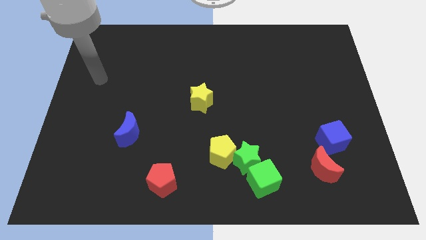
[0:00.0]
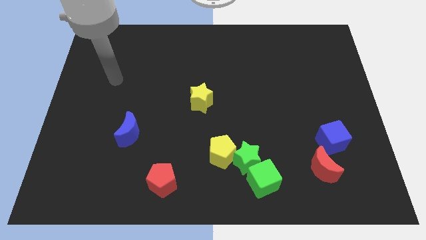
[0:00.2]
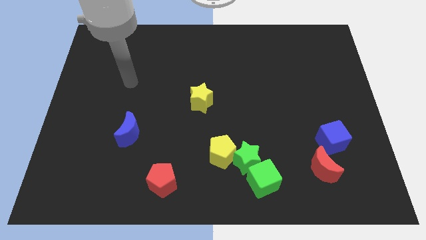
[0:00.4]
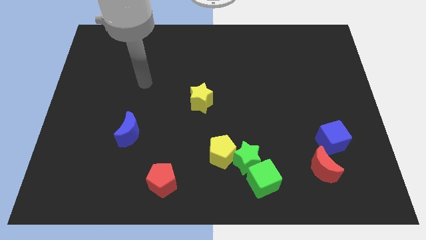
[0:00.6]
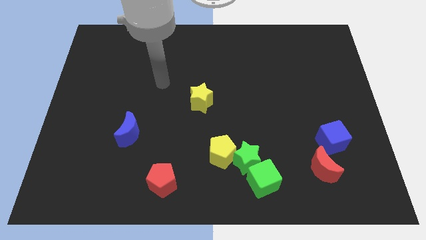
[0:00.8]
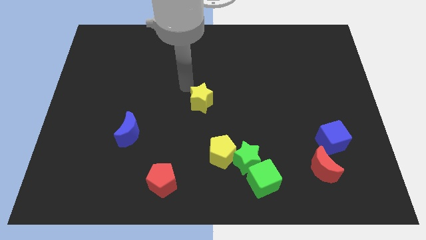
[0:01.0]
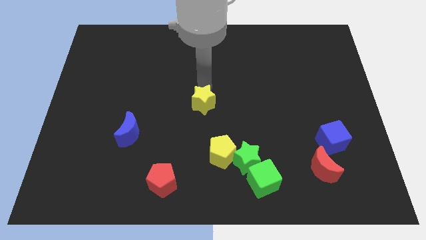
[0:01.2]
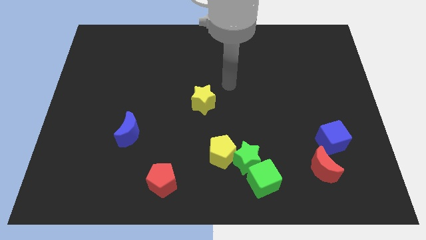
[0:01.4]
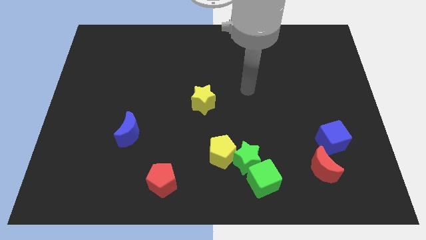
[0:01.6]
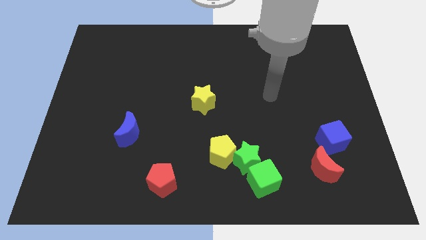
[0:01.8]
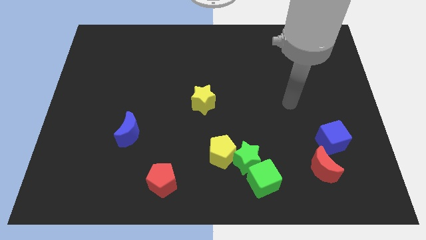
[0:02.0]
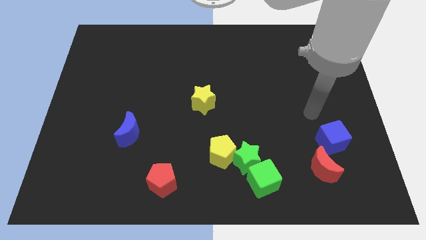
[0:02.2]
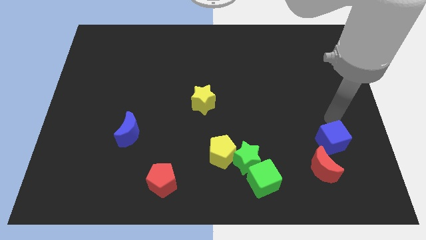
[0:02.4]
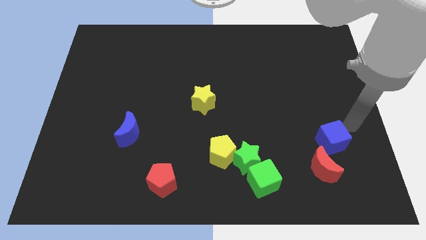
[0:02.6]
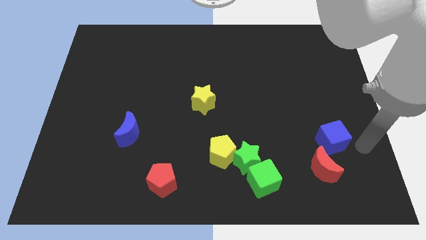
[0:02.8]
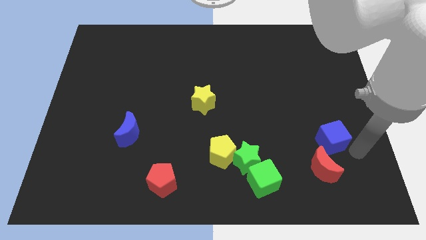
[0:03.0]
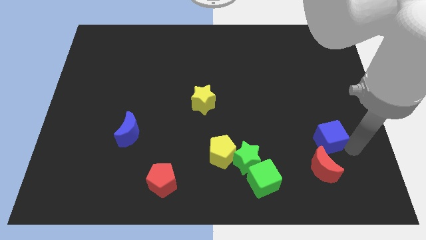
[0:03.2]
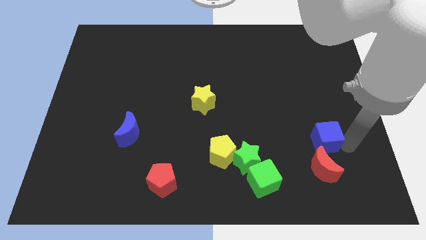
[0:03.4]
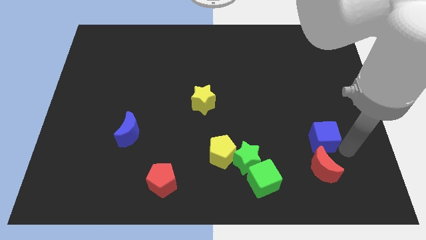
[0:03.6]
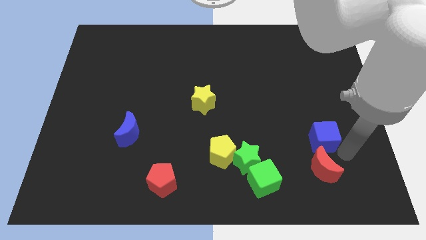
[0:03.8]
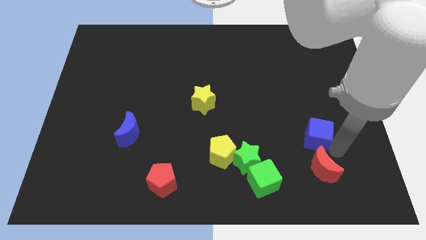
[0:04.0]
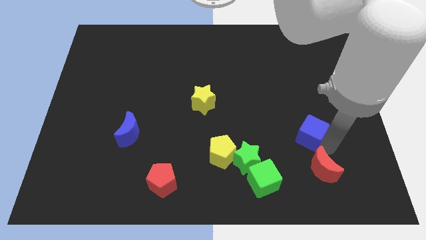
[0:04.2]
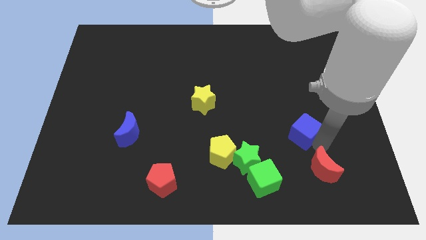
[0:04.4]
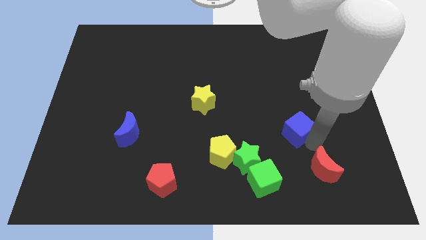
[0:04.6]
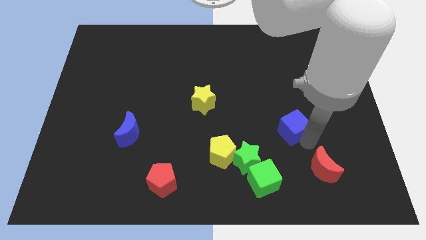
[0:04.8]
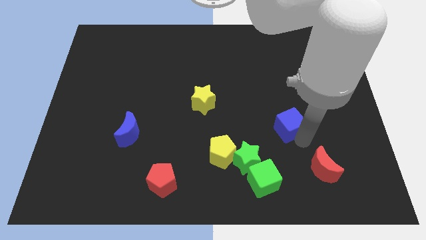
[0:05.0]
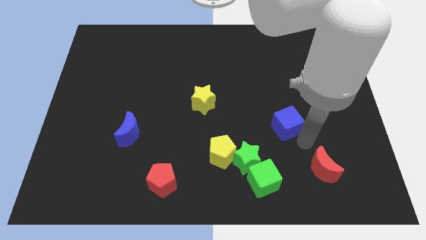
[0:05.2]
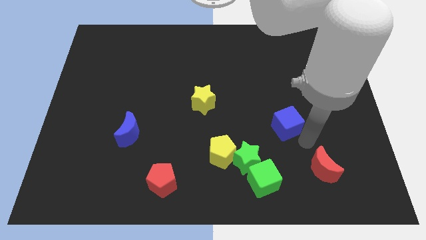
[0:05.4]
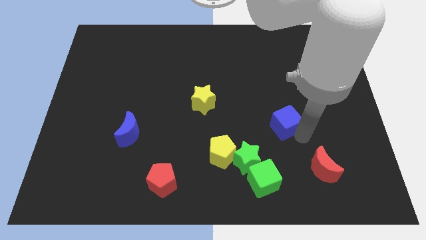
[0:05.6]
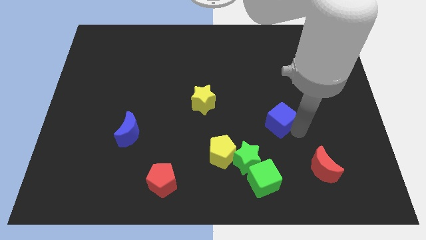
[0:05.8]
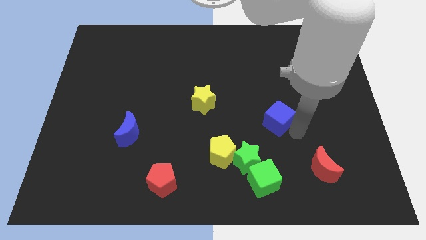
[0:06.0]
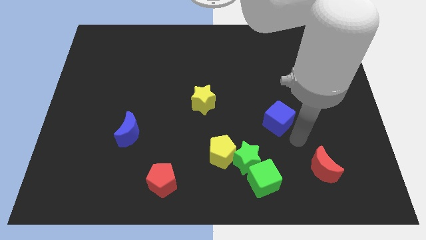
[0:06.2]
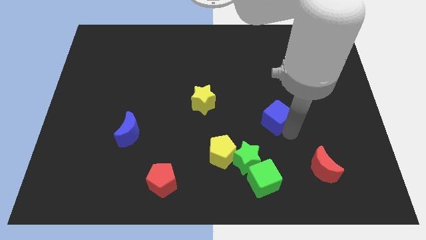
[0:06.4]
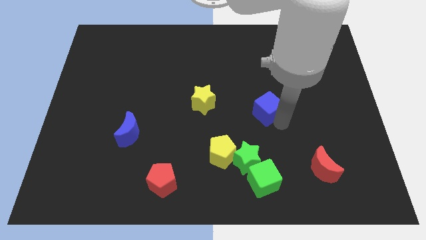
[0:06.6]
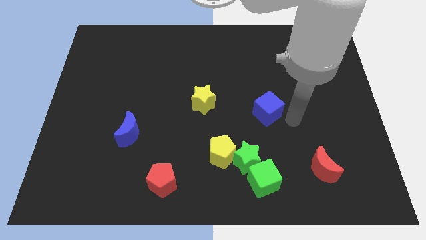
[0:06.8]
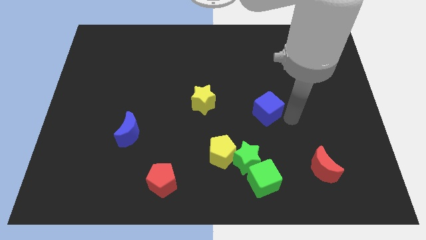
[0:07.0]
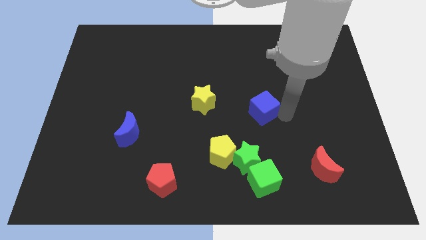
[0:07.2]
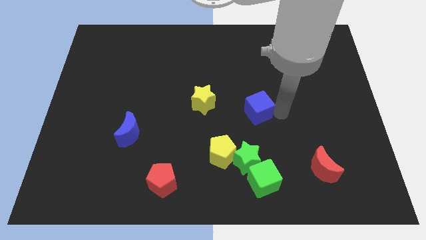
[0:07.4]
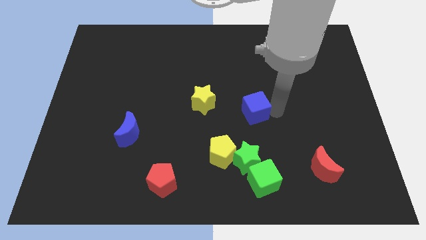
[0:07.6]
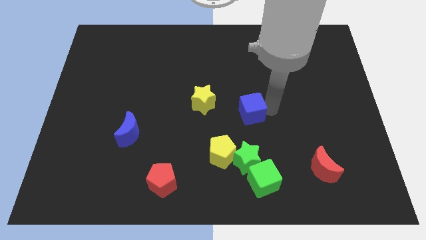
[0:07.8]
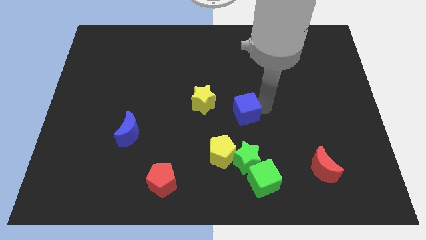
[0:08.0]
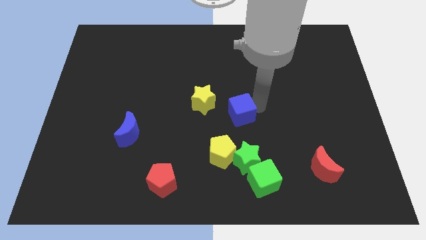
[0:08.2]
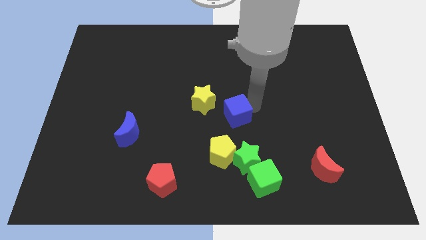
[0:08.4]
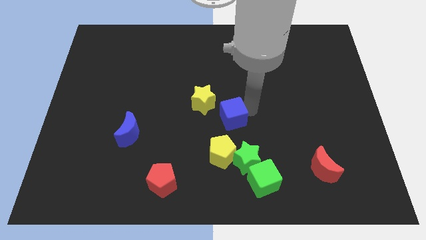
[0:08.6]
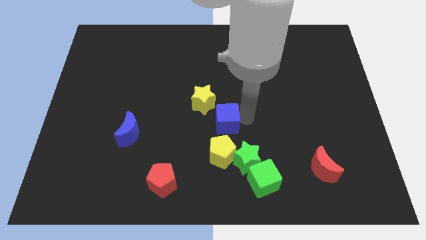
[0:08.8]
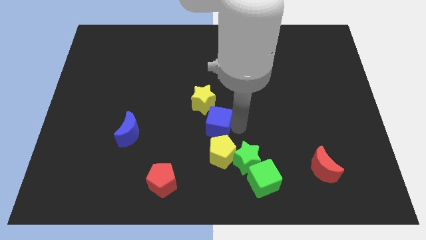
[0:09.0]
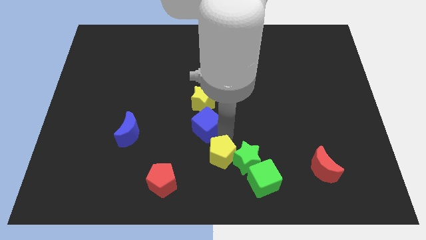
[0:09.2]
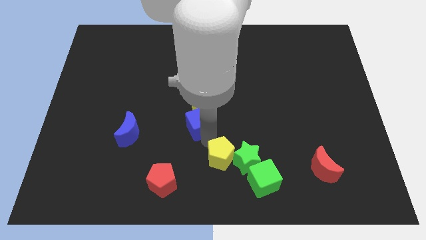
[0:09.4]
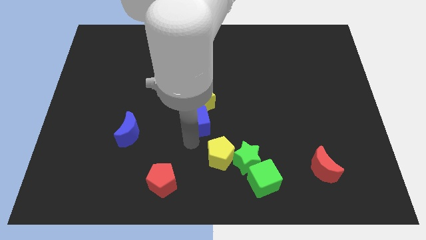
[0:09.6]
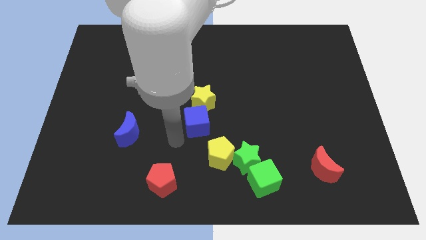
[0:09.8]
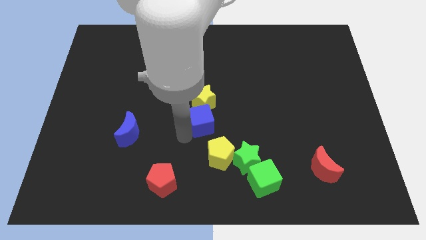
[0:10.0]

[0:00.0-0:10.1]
move the blue cube towards the yellow star

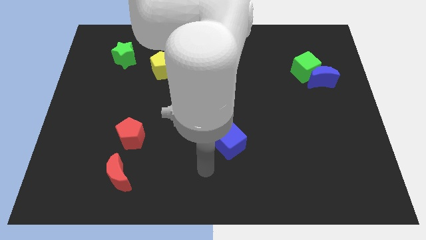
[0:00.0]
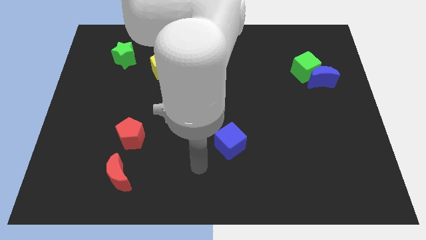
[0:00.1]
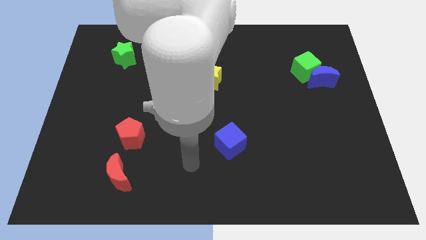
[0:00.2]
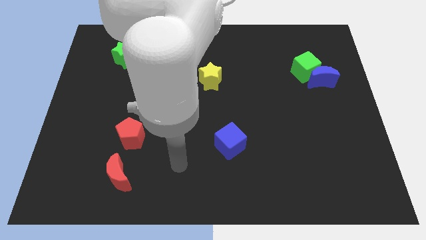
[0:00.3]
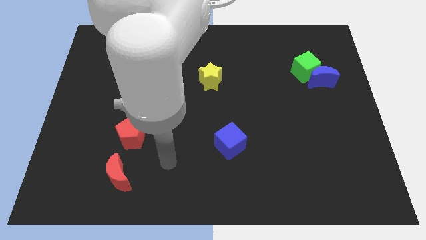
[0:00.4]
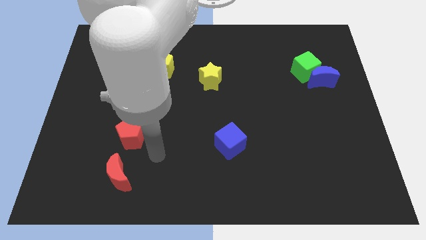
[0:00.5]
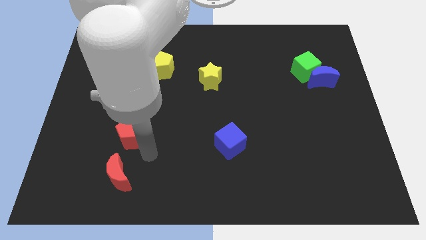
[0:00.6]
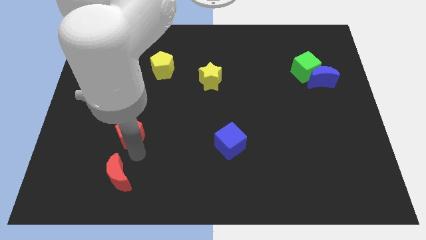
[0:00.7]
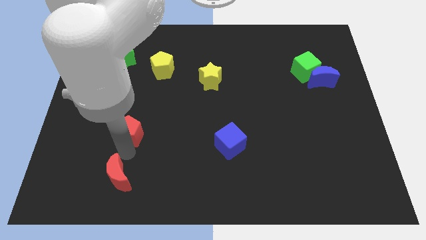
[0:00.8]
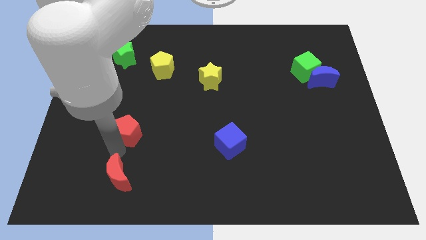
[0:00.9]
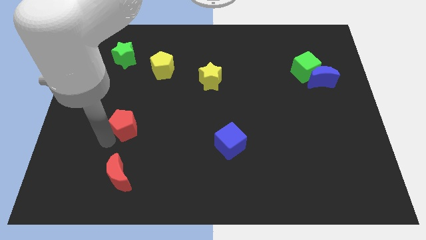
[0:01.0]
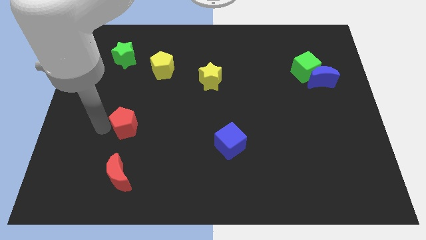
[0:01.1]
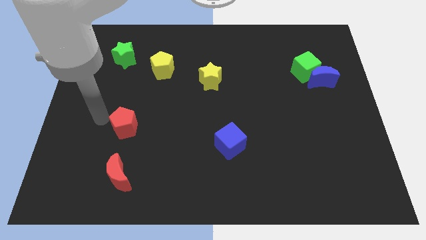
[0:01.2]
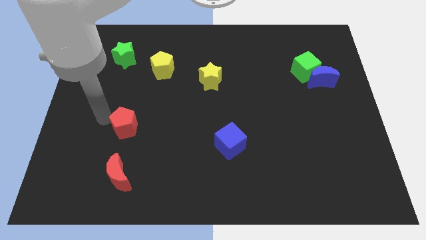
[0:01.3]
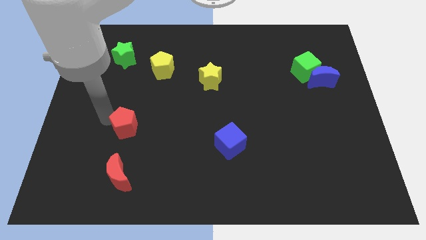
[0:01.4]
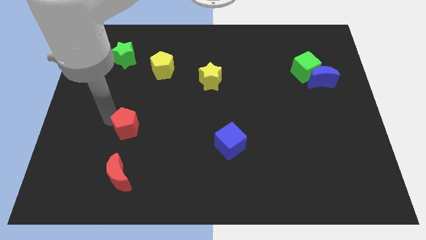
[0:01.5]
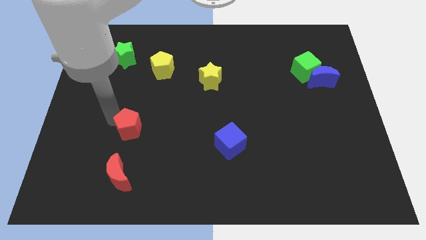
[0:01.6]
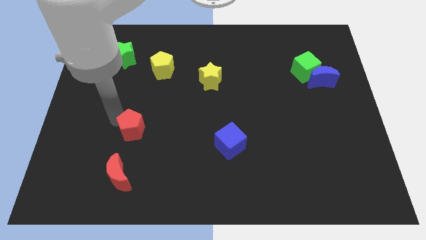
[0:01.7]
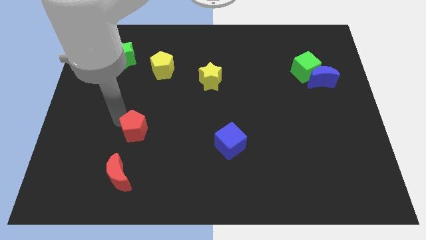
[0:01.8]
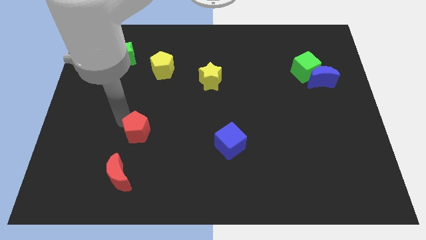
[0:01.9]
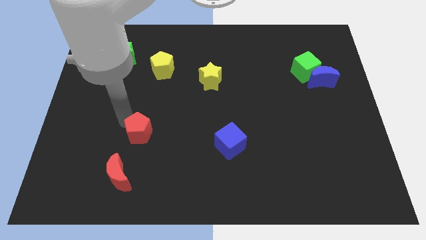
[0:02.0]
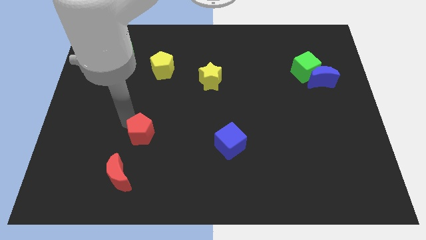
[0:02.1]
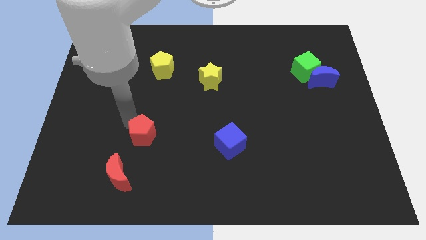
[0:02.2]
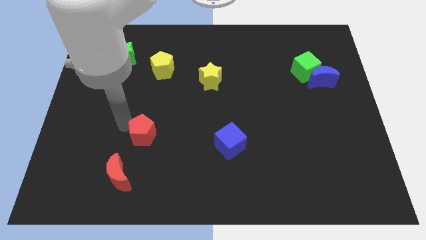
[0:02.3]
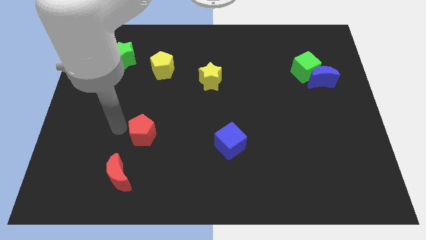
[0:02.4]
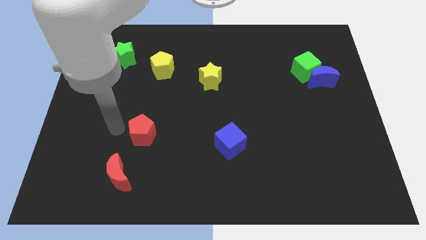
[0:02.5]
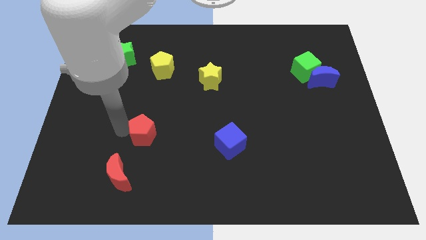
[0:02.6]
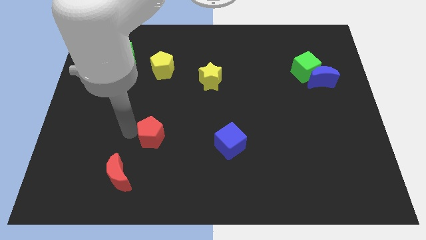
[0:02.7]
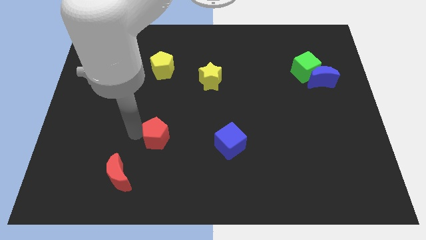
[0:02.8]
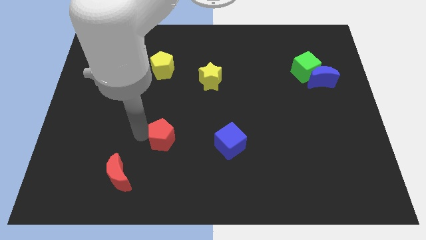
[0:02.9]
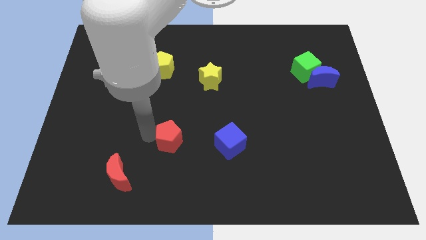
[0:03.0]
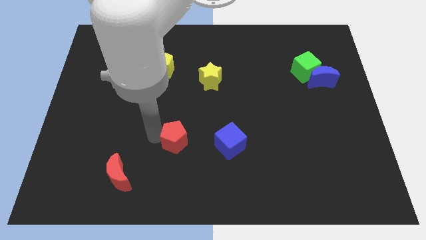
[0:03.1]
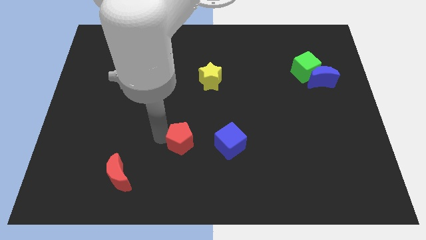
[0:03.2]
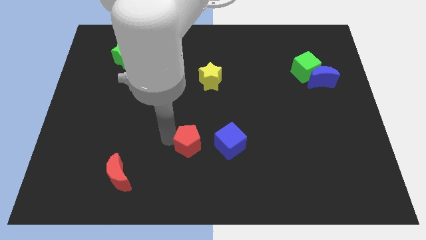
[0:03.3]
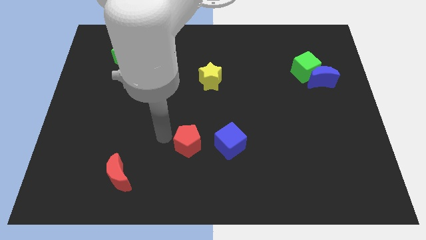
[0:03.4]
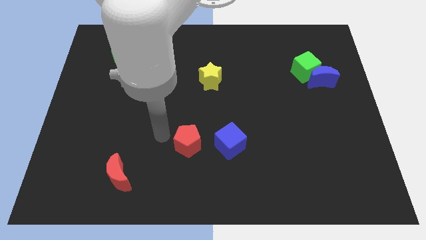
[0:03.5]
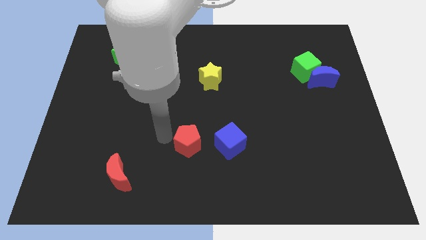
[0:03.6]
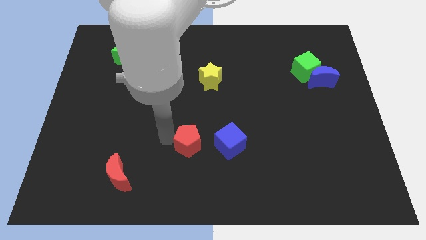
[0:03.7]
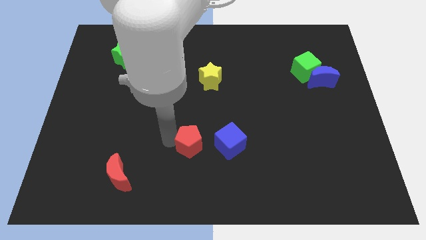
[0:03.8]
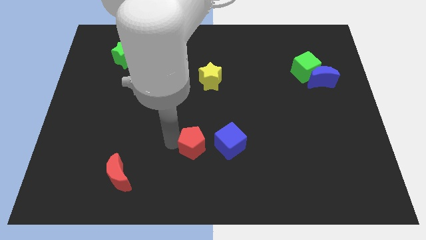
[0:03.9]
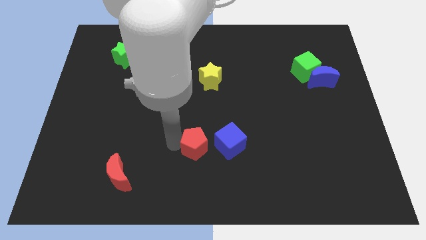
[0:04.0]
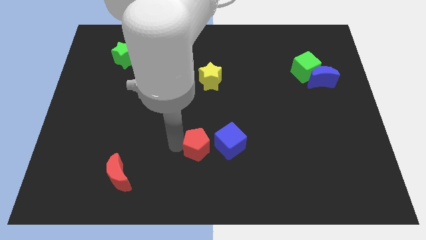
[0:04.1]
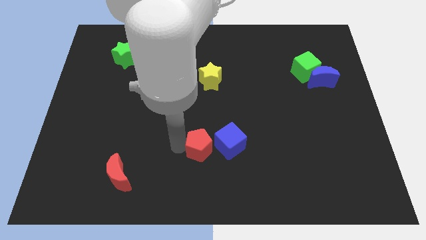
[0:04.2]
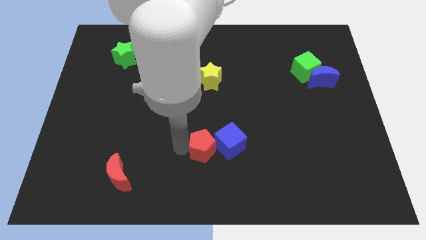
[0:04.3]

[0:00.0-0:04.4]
move the red pentagon to the blue cube
